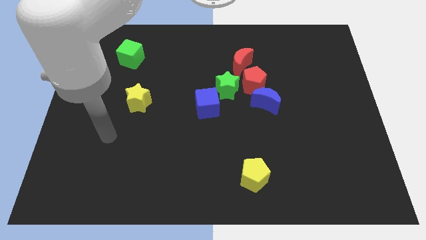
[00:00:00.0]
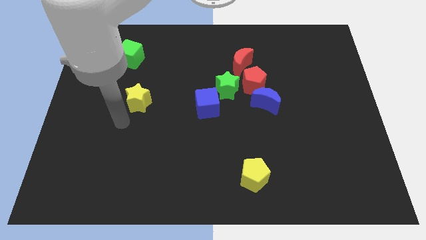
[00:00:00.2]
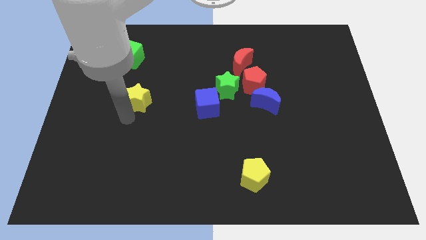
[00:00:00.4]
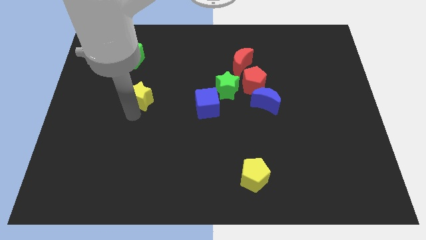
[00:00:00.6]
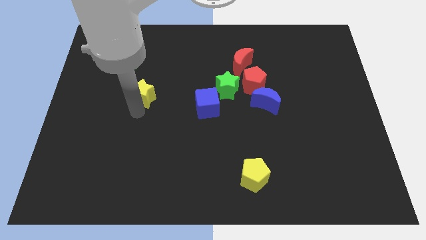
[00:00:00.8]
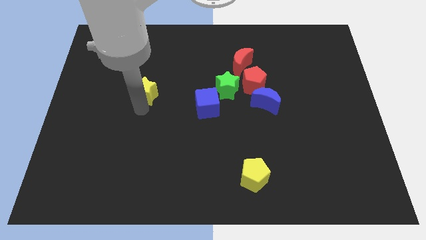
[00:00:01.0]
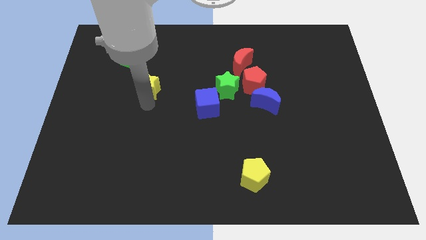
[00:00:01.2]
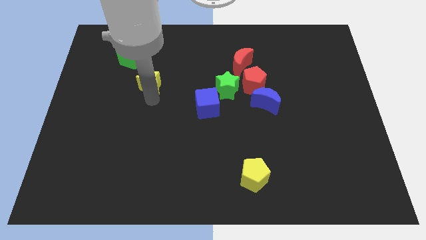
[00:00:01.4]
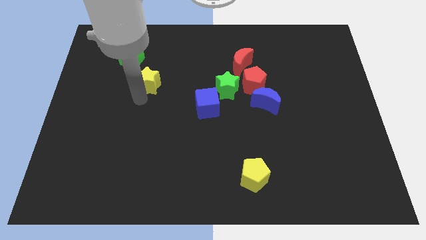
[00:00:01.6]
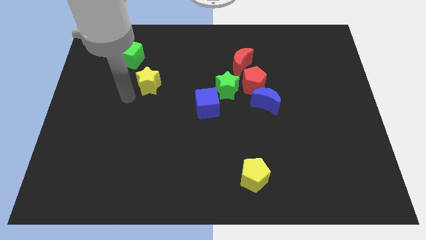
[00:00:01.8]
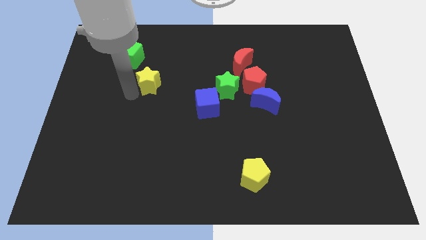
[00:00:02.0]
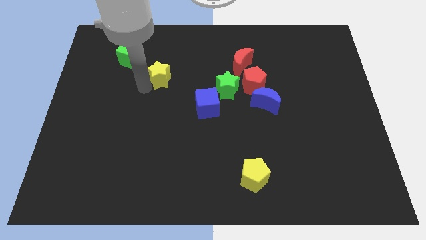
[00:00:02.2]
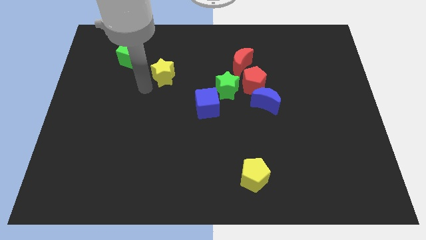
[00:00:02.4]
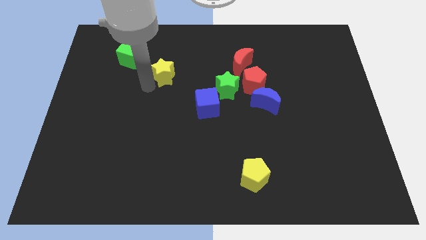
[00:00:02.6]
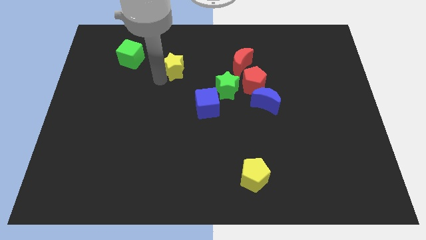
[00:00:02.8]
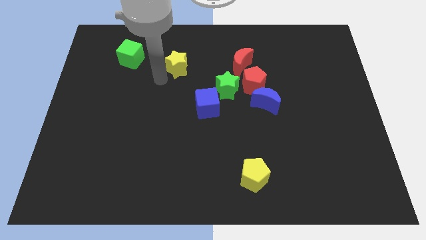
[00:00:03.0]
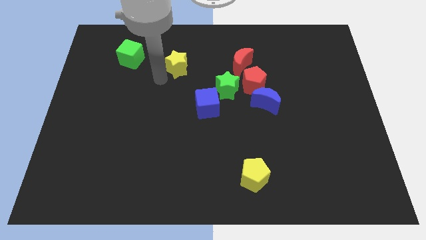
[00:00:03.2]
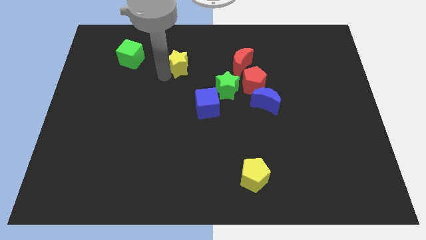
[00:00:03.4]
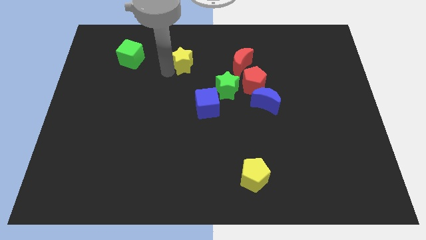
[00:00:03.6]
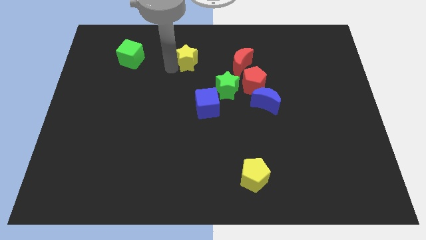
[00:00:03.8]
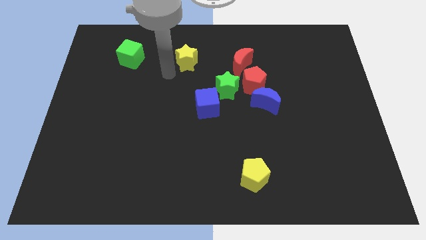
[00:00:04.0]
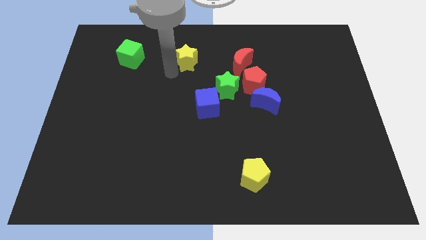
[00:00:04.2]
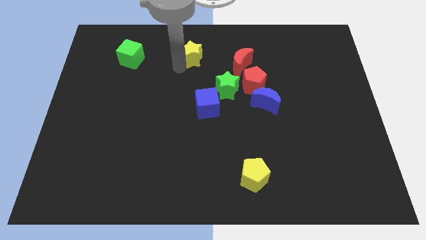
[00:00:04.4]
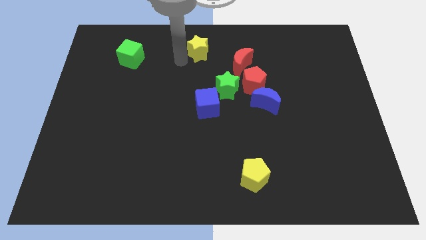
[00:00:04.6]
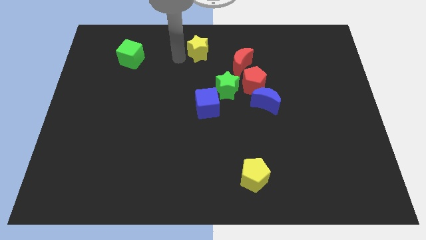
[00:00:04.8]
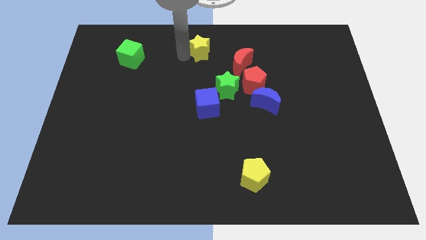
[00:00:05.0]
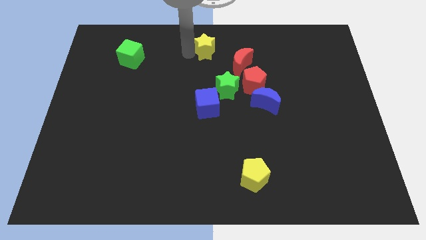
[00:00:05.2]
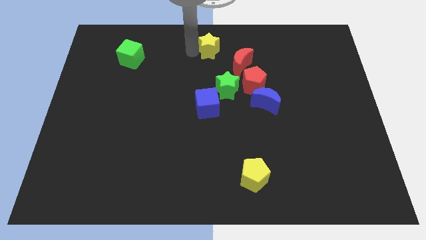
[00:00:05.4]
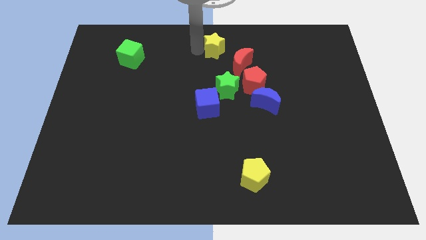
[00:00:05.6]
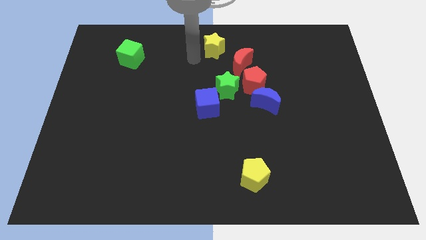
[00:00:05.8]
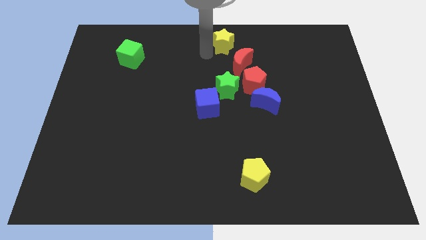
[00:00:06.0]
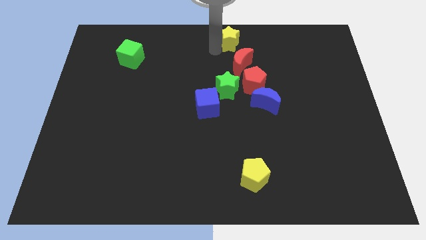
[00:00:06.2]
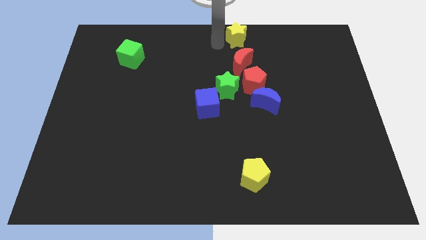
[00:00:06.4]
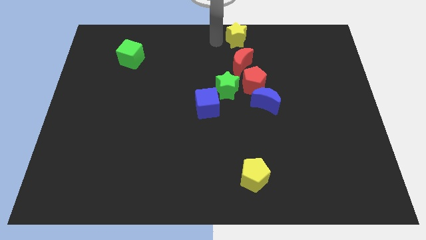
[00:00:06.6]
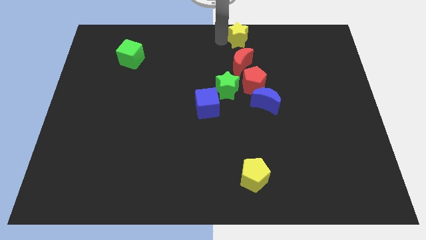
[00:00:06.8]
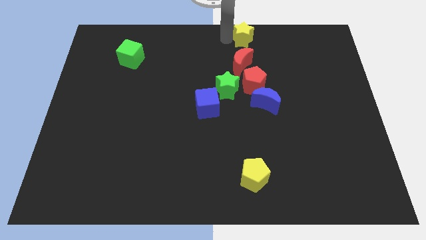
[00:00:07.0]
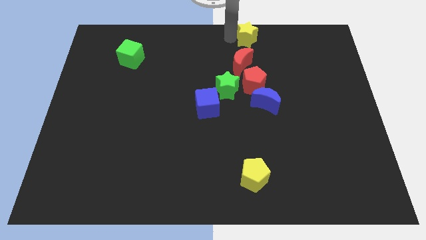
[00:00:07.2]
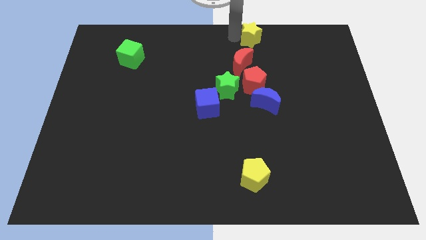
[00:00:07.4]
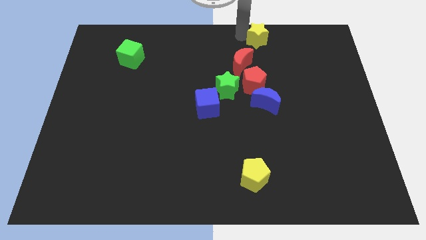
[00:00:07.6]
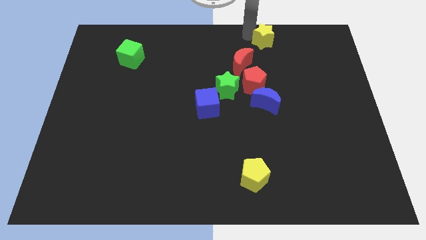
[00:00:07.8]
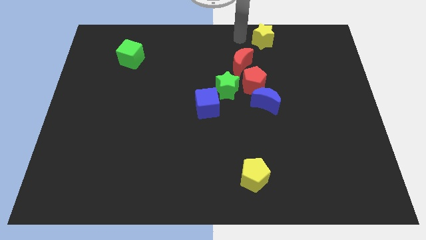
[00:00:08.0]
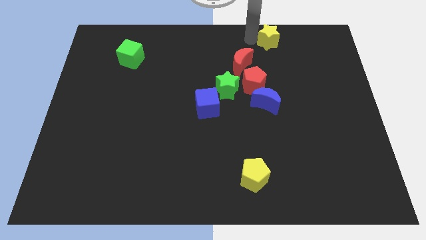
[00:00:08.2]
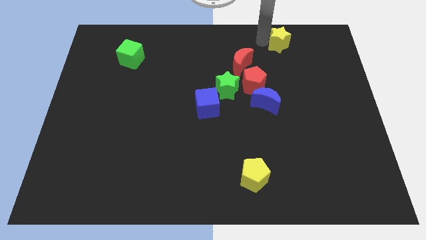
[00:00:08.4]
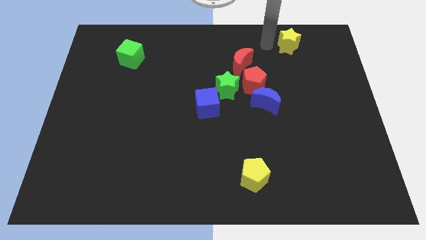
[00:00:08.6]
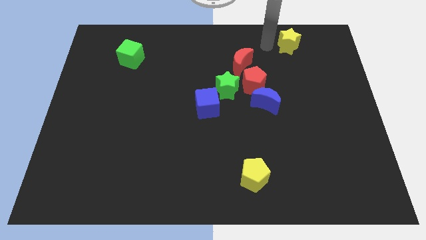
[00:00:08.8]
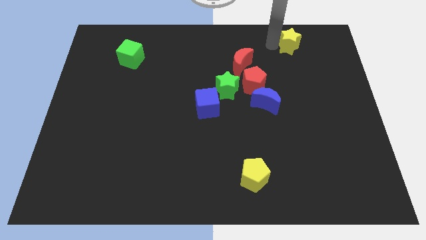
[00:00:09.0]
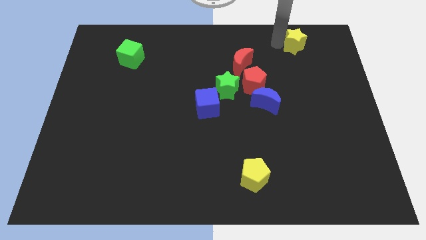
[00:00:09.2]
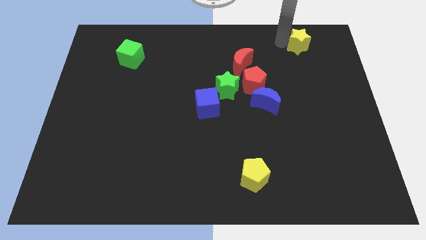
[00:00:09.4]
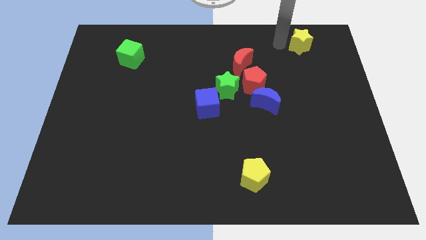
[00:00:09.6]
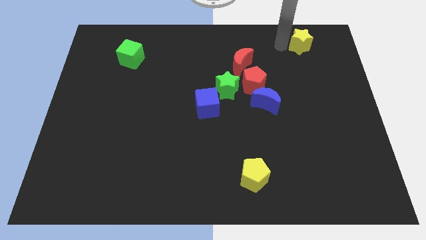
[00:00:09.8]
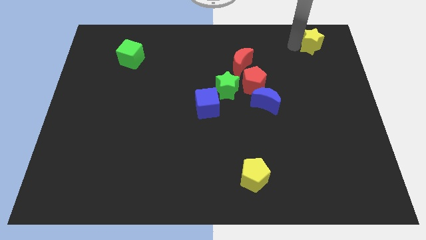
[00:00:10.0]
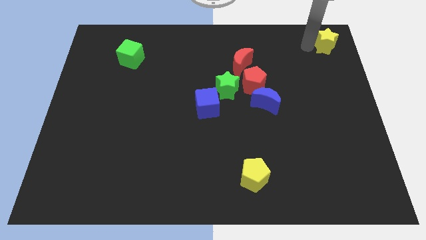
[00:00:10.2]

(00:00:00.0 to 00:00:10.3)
move the yellow star to the top right corner

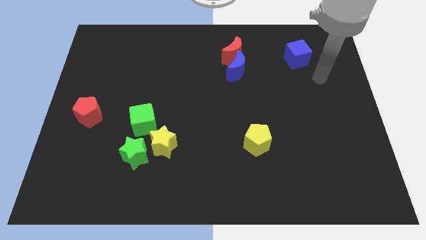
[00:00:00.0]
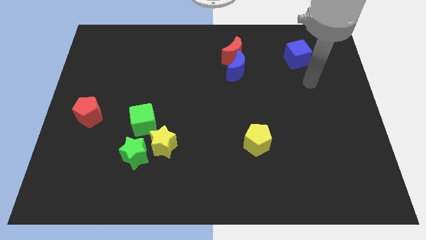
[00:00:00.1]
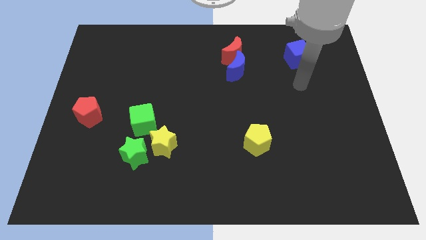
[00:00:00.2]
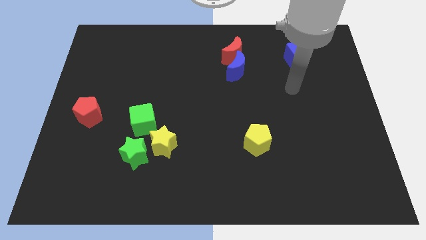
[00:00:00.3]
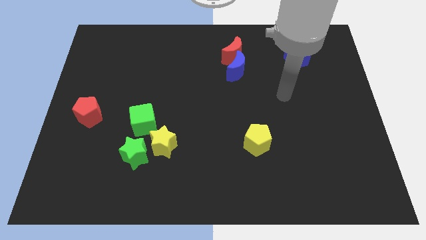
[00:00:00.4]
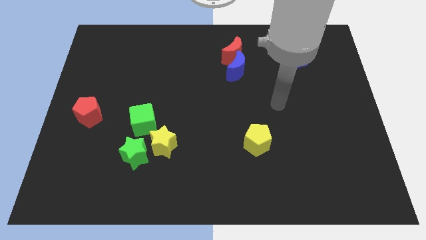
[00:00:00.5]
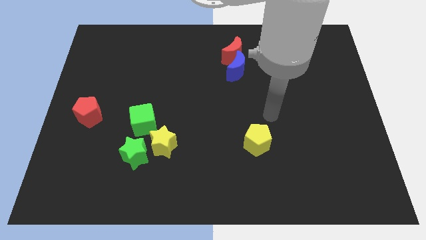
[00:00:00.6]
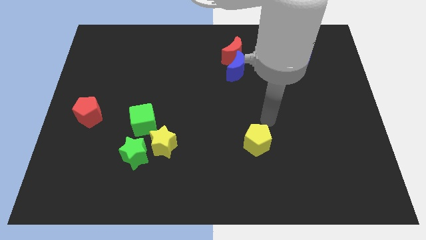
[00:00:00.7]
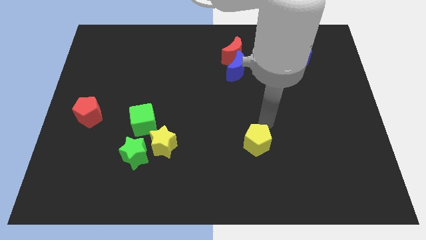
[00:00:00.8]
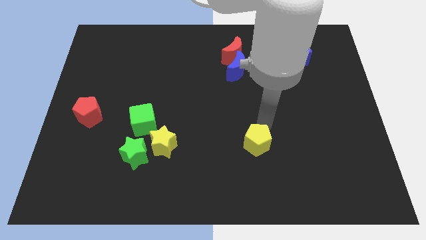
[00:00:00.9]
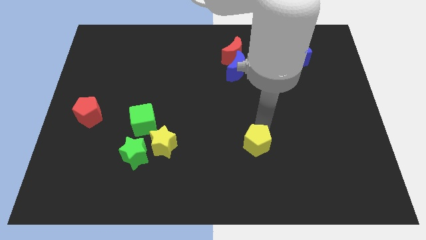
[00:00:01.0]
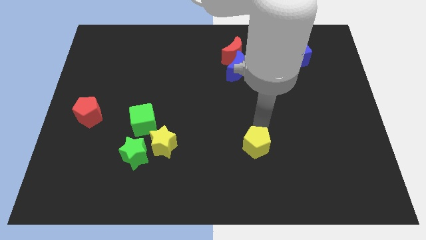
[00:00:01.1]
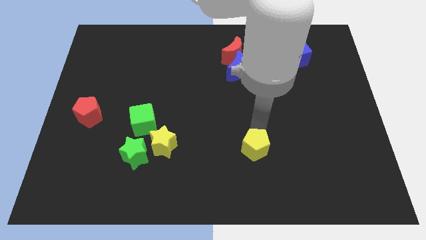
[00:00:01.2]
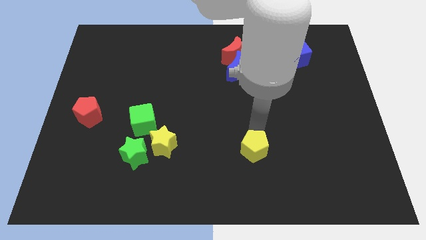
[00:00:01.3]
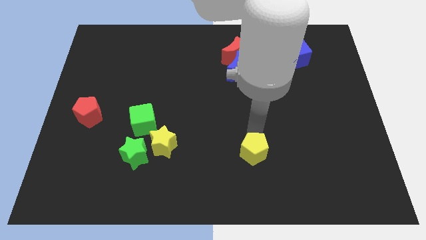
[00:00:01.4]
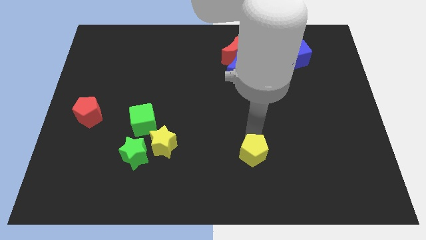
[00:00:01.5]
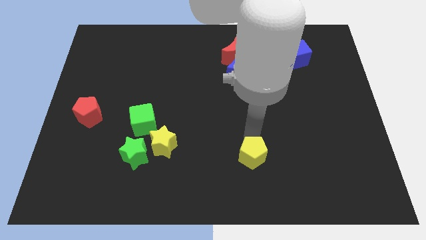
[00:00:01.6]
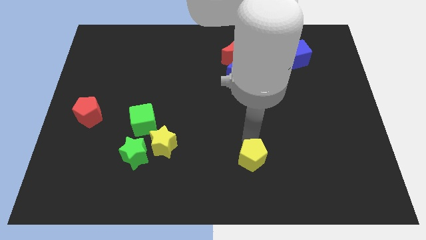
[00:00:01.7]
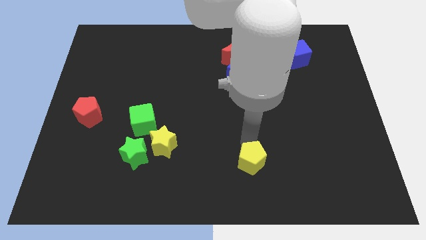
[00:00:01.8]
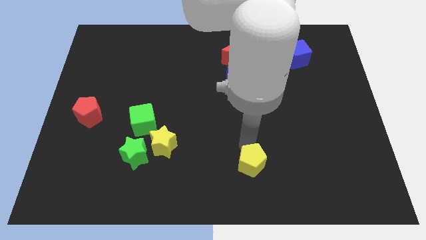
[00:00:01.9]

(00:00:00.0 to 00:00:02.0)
push the yellow pentagon to the bottom

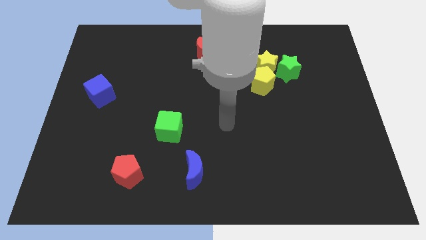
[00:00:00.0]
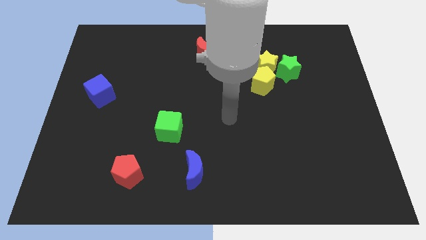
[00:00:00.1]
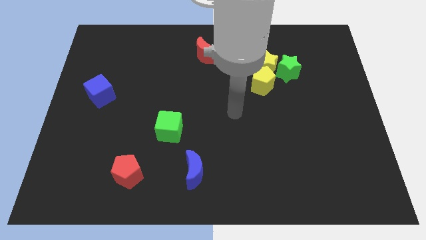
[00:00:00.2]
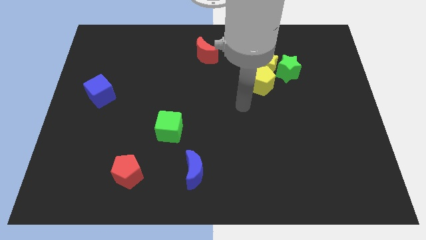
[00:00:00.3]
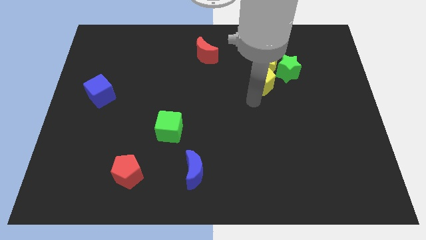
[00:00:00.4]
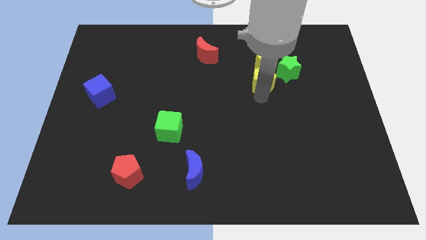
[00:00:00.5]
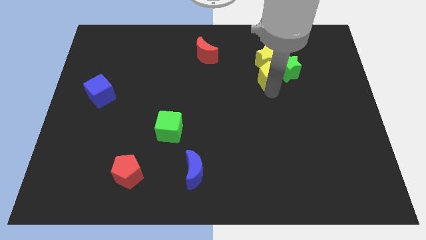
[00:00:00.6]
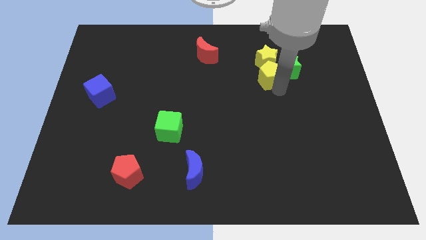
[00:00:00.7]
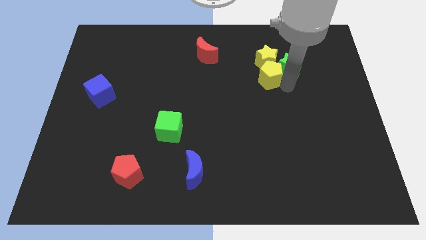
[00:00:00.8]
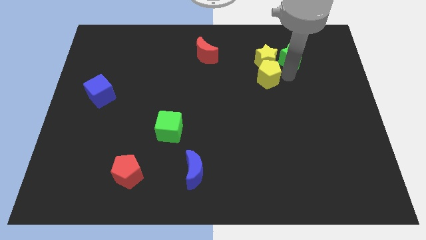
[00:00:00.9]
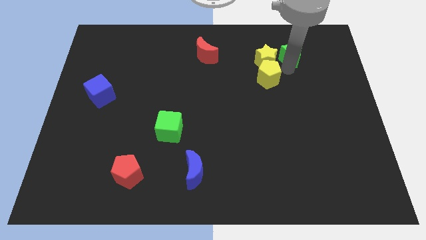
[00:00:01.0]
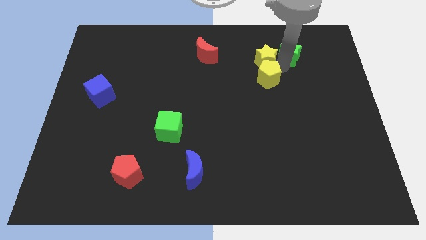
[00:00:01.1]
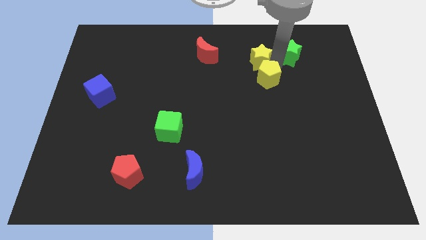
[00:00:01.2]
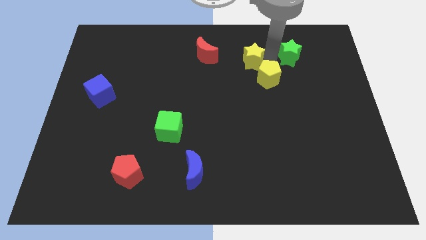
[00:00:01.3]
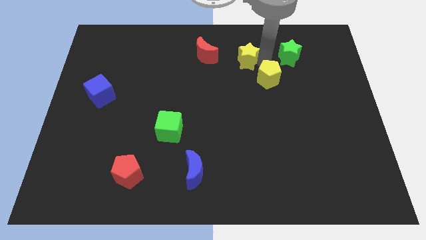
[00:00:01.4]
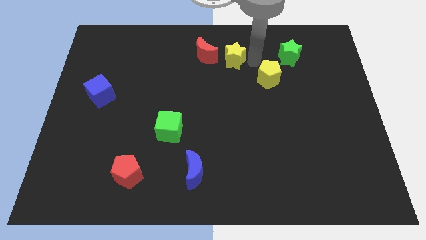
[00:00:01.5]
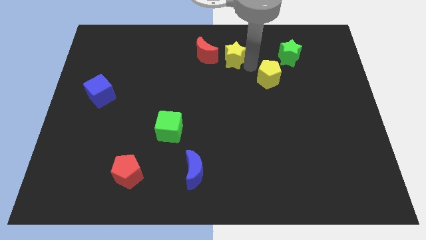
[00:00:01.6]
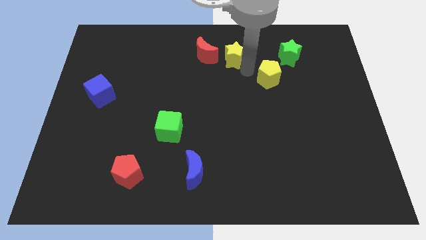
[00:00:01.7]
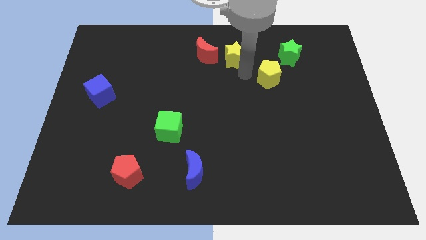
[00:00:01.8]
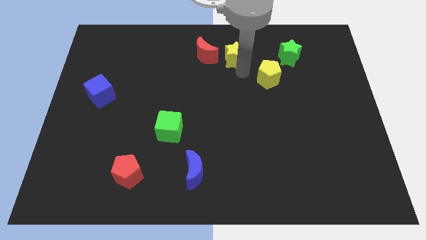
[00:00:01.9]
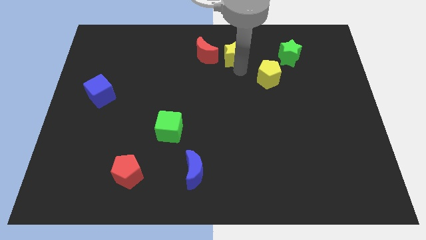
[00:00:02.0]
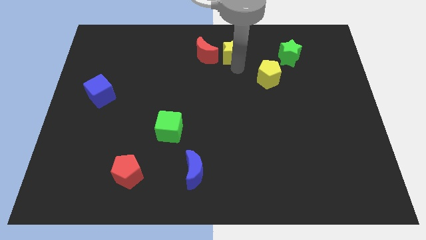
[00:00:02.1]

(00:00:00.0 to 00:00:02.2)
move the yellow star to the towards your base
